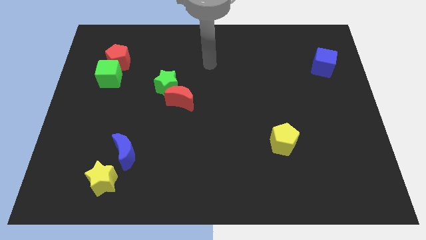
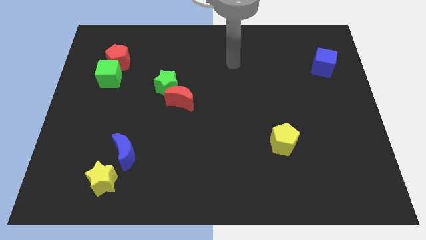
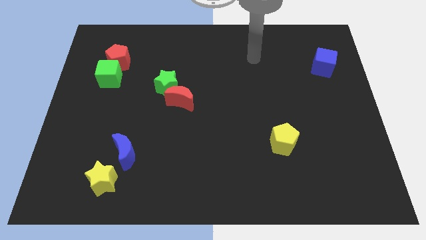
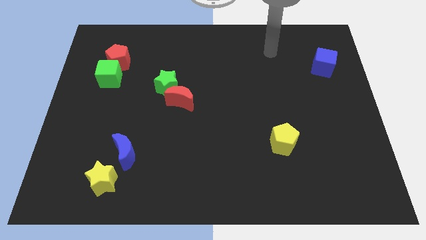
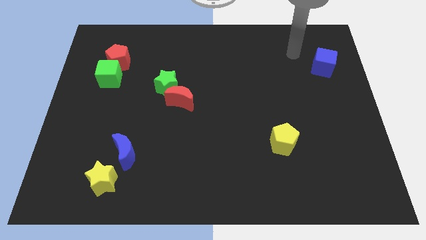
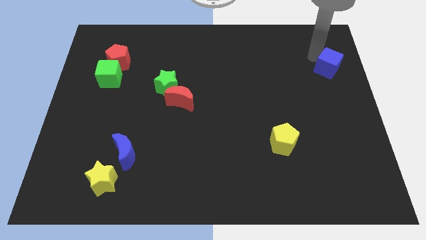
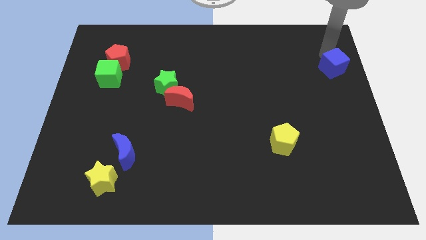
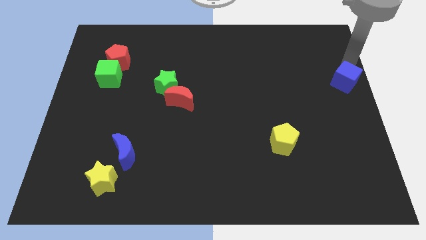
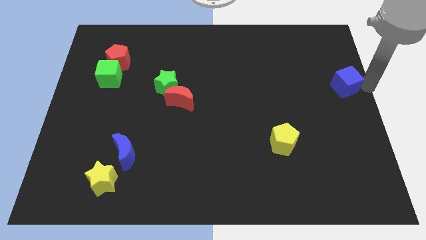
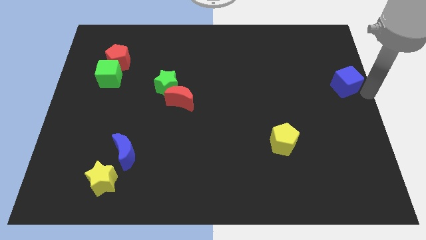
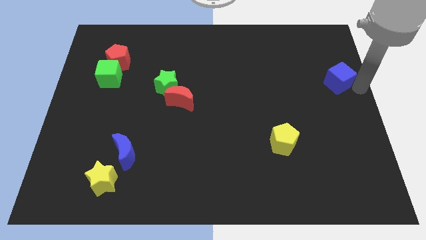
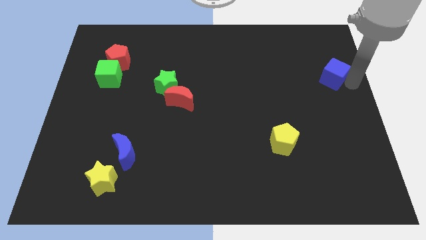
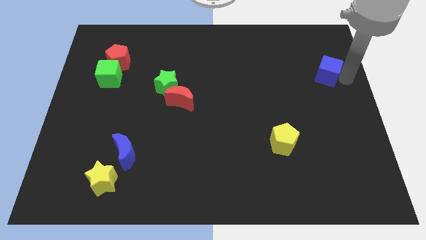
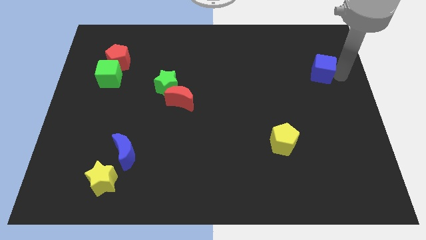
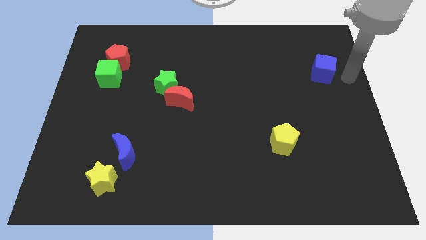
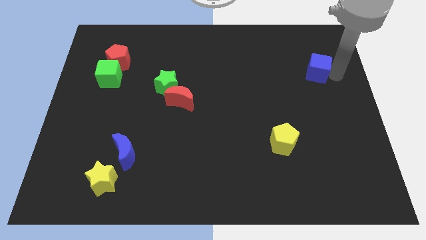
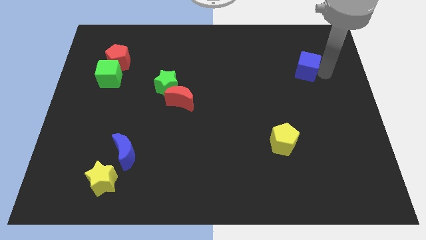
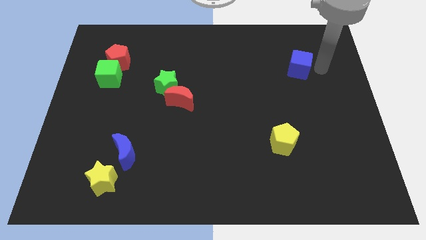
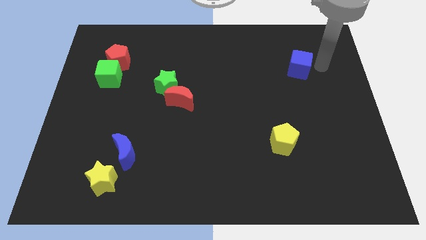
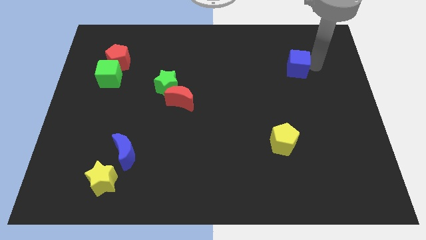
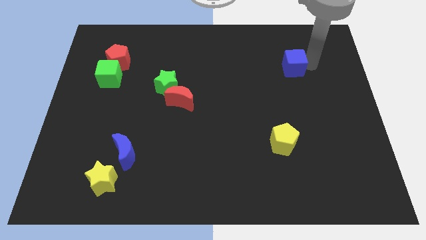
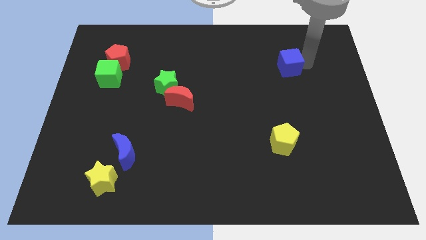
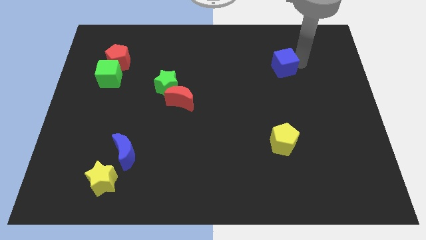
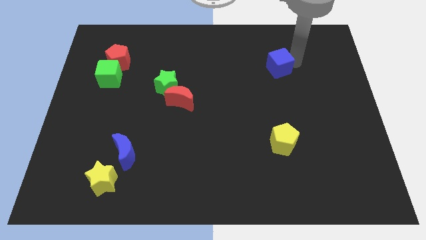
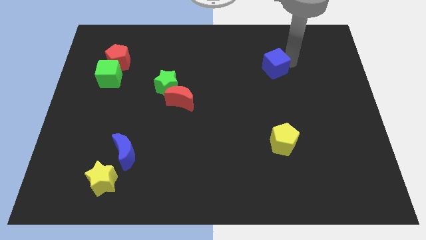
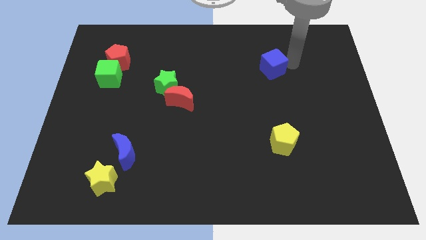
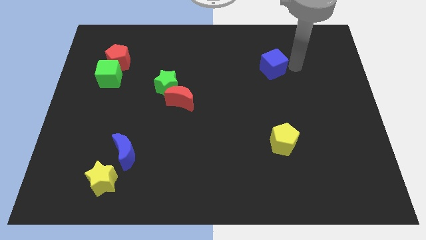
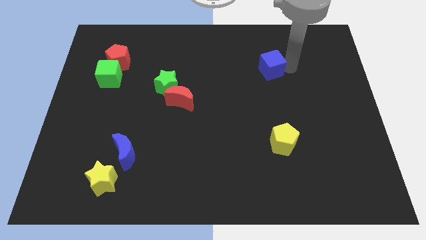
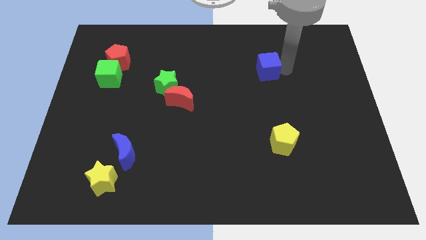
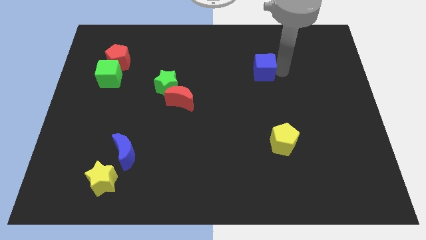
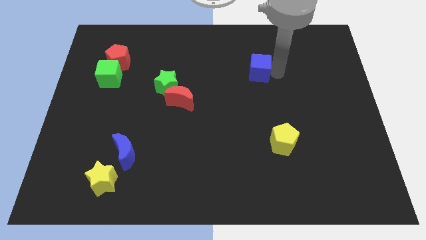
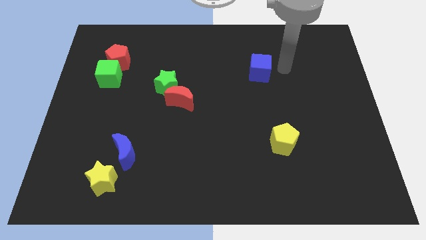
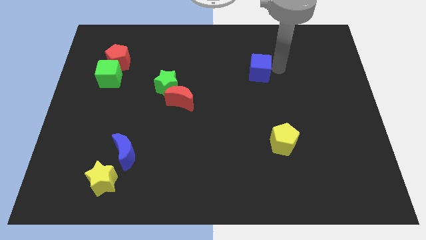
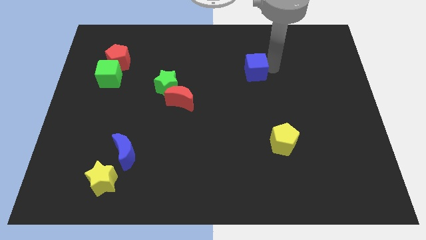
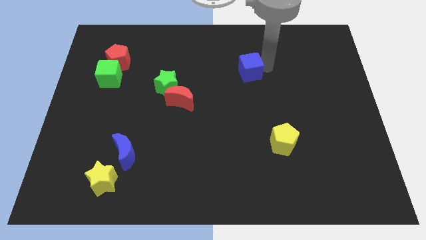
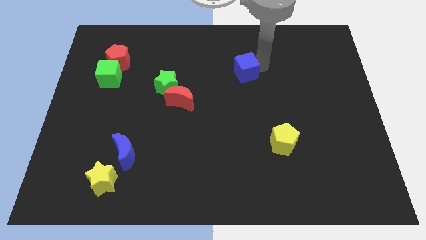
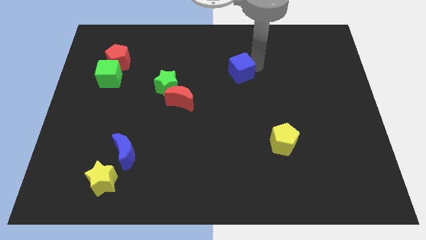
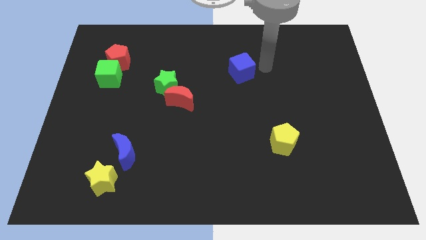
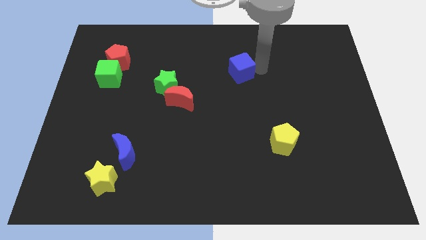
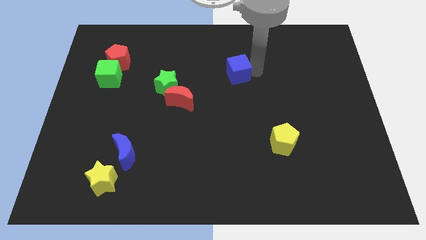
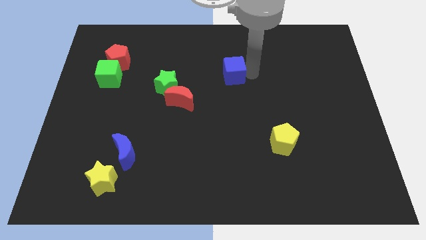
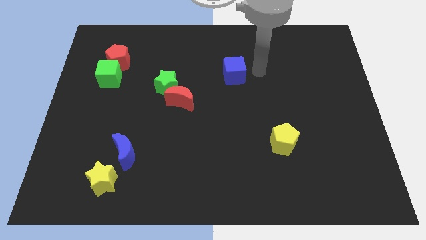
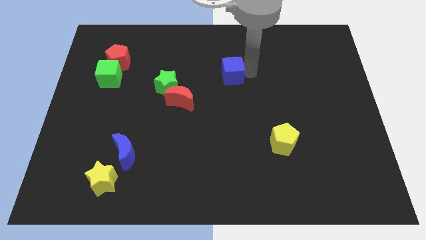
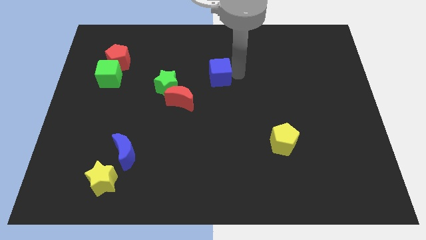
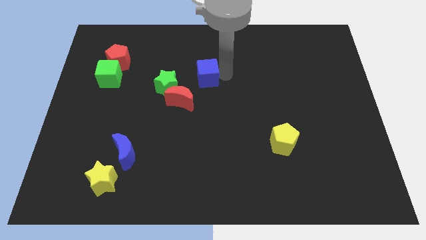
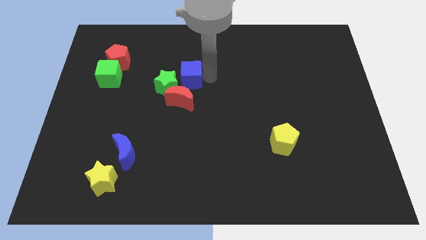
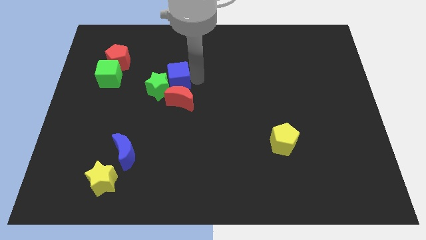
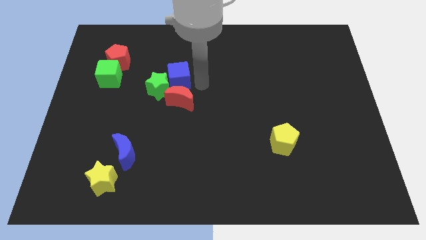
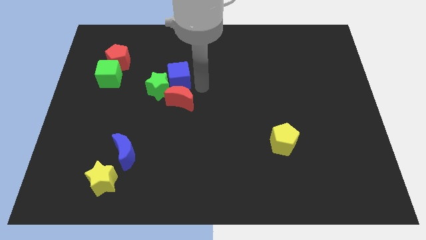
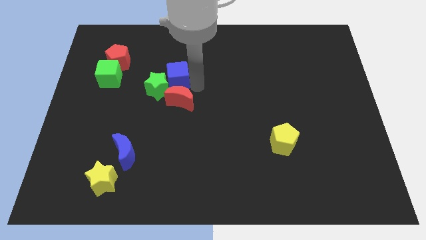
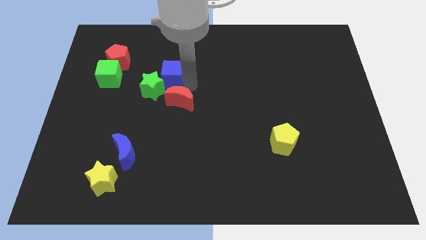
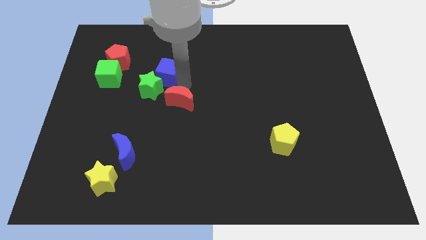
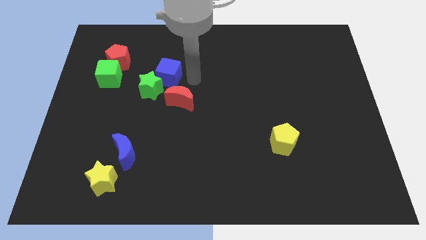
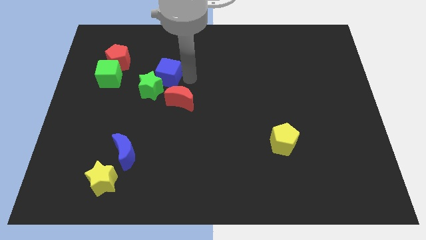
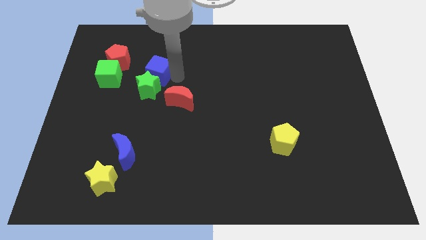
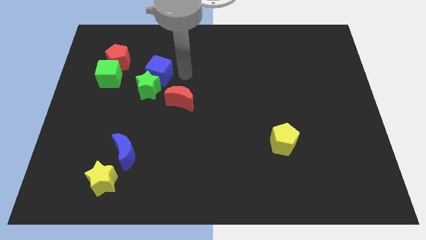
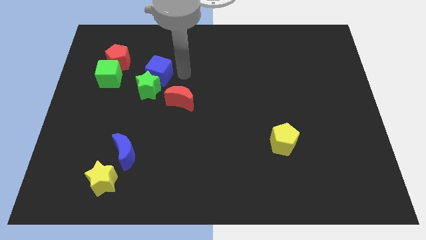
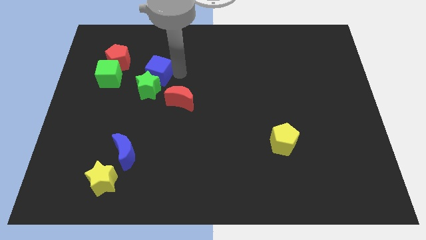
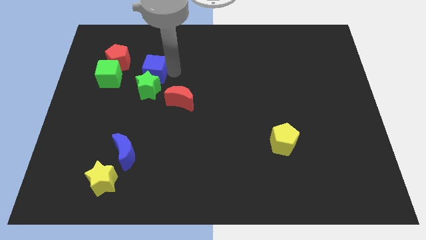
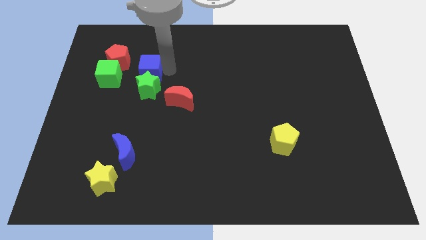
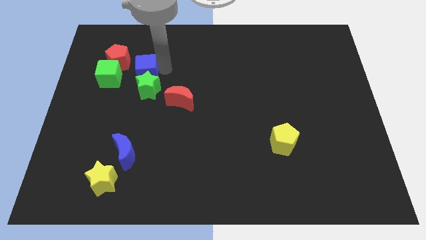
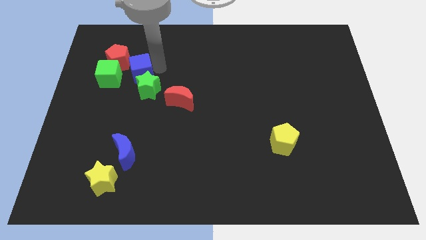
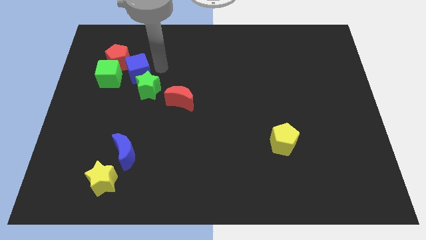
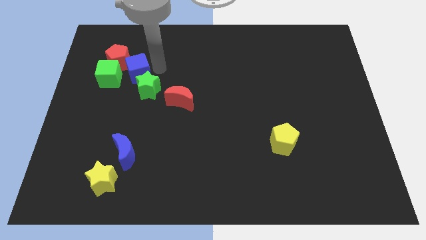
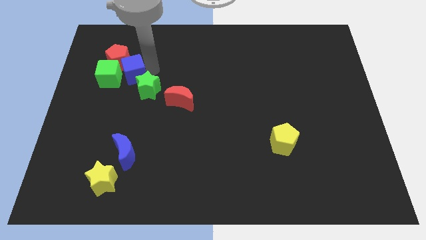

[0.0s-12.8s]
push the blue cube close to the green cube
